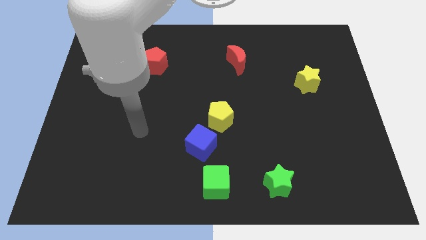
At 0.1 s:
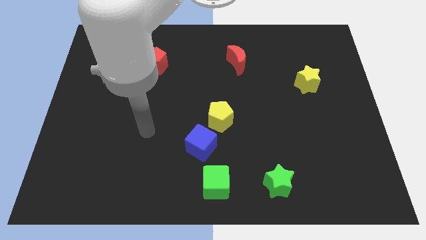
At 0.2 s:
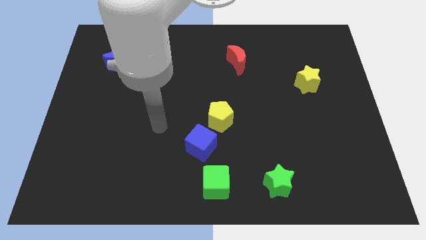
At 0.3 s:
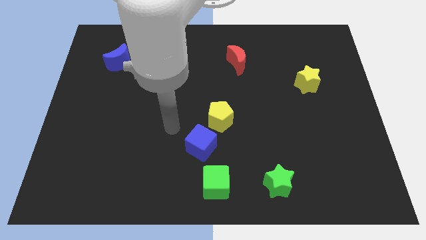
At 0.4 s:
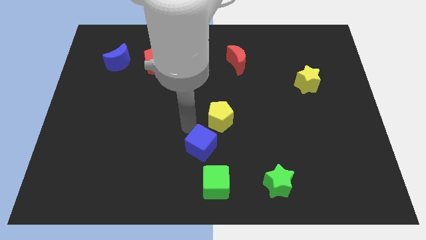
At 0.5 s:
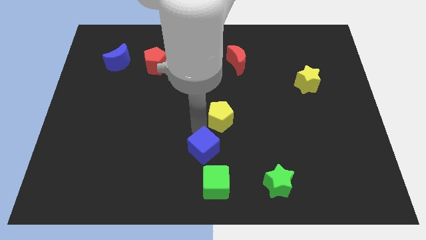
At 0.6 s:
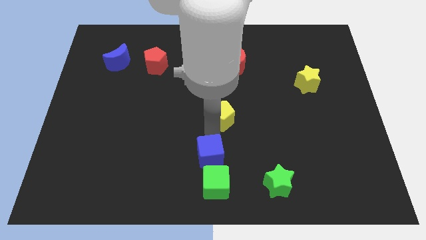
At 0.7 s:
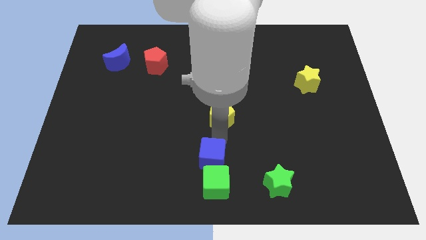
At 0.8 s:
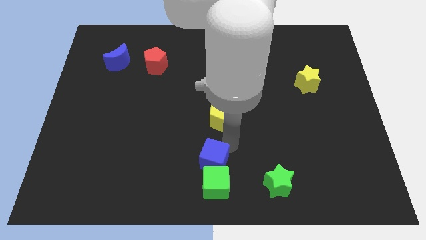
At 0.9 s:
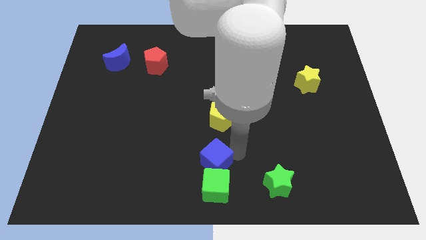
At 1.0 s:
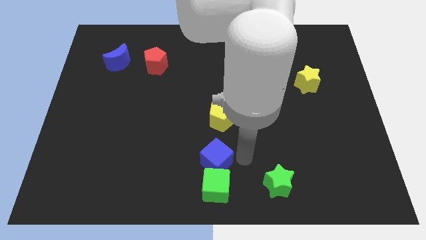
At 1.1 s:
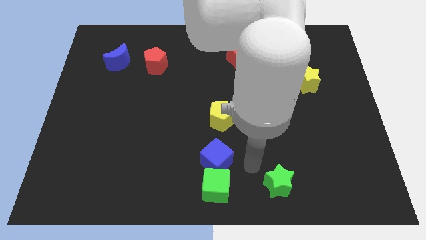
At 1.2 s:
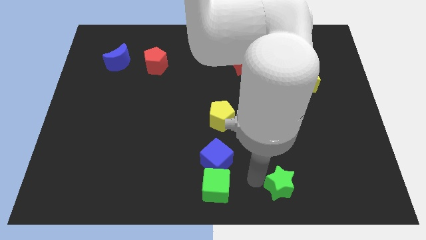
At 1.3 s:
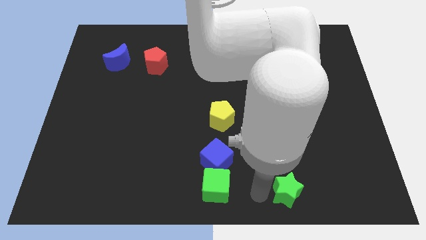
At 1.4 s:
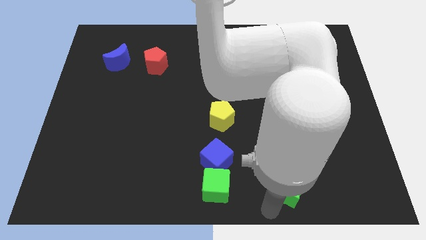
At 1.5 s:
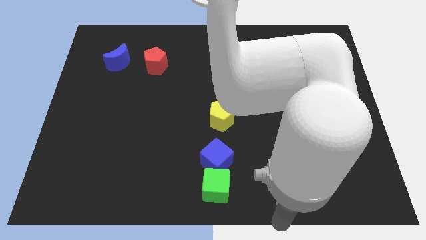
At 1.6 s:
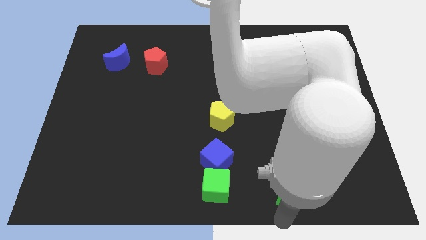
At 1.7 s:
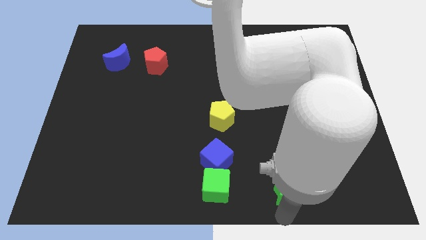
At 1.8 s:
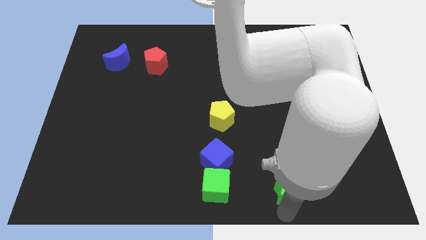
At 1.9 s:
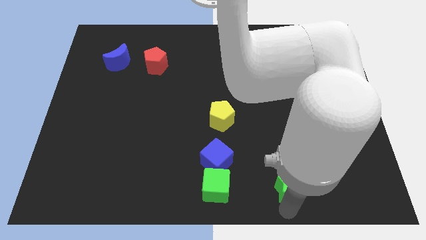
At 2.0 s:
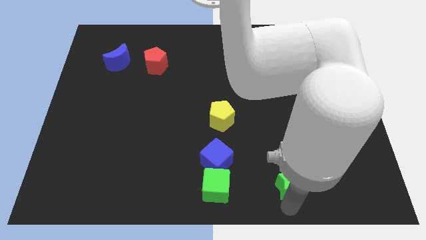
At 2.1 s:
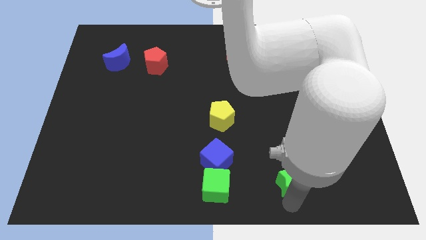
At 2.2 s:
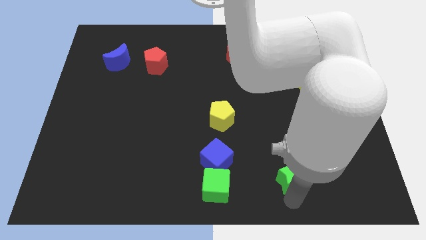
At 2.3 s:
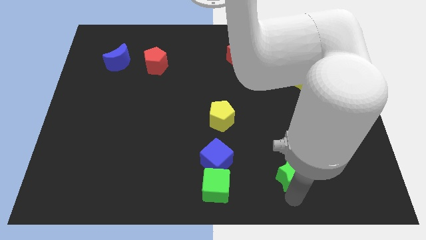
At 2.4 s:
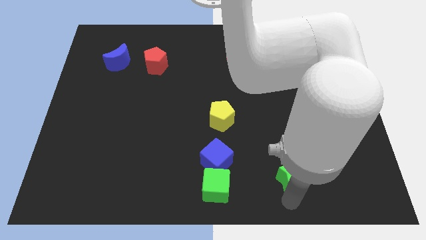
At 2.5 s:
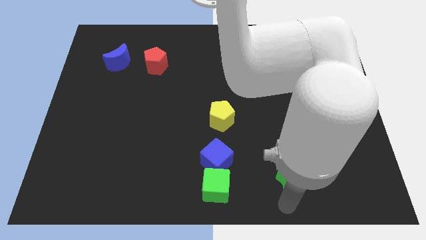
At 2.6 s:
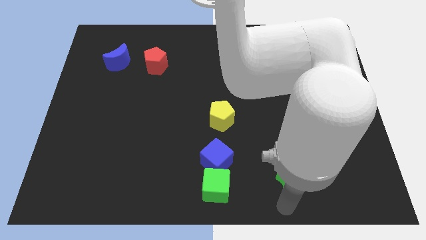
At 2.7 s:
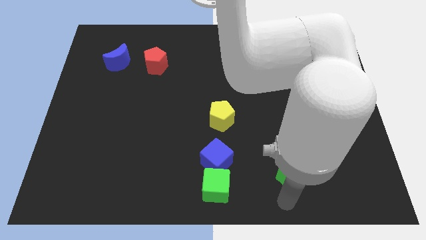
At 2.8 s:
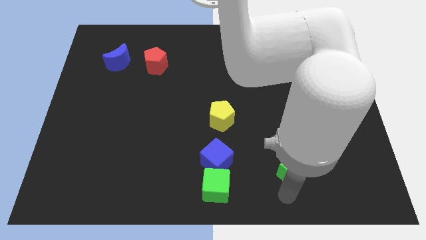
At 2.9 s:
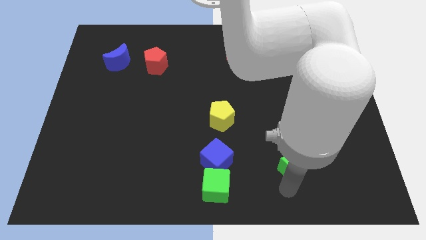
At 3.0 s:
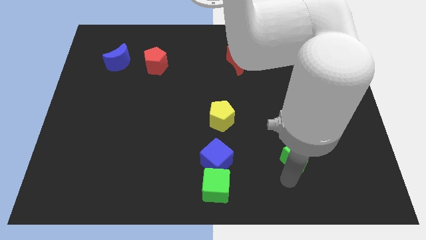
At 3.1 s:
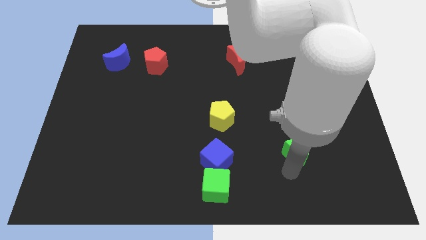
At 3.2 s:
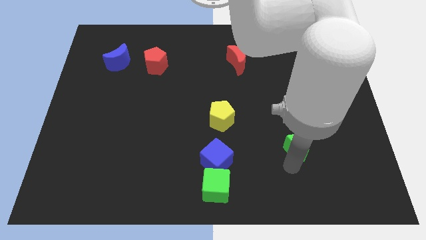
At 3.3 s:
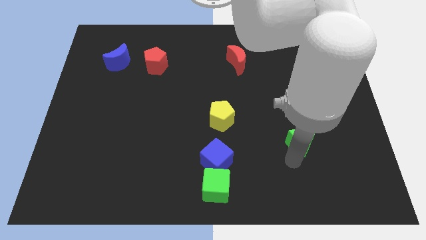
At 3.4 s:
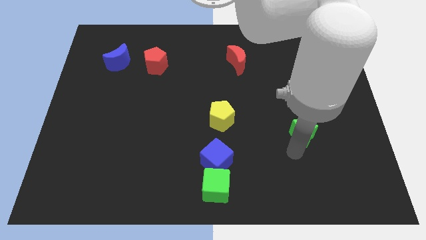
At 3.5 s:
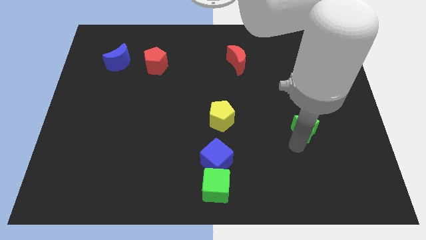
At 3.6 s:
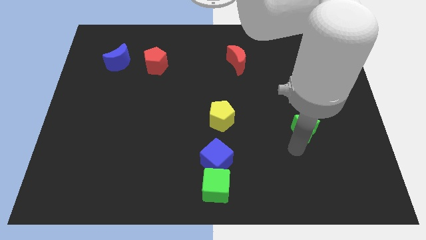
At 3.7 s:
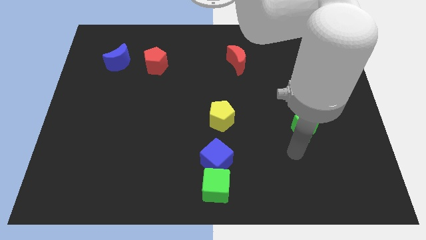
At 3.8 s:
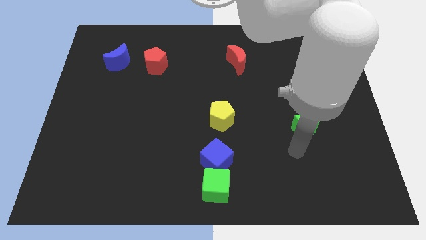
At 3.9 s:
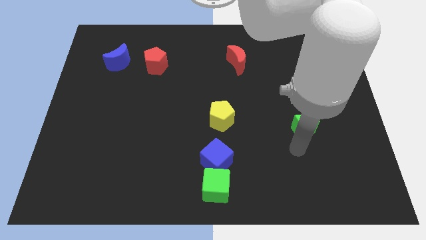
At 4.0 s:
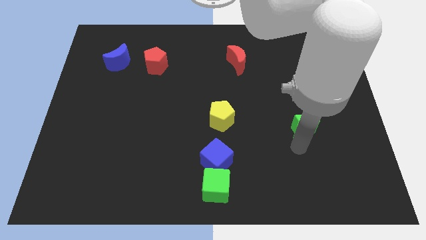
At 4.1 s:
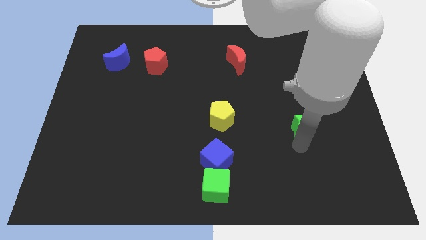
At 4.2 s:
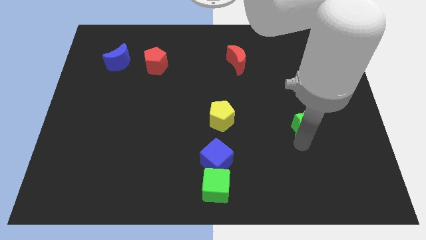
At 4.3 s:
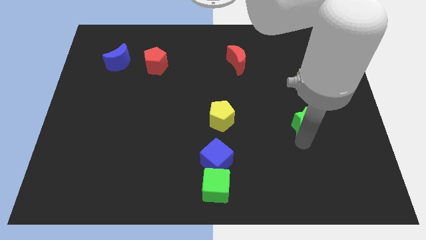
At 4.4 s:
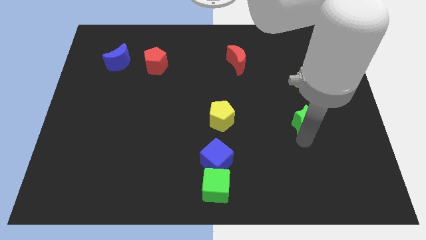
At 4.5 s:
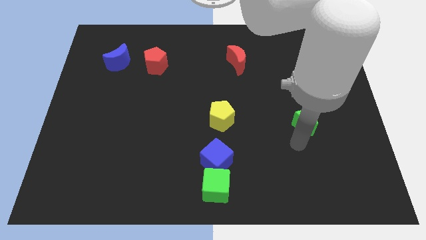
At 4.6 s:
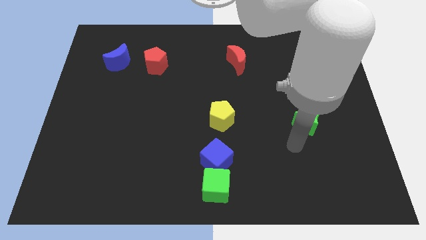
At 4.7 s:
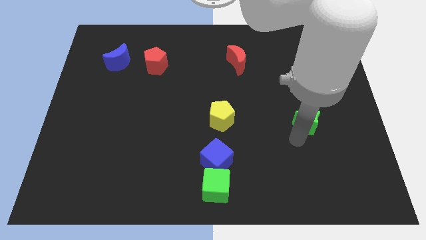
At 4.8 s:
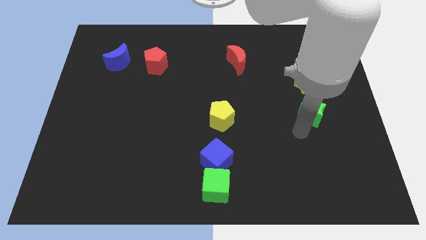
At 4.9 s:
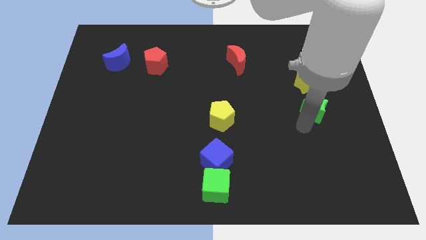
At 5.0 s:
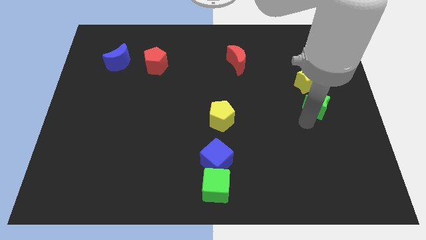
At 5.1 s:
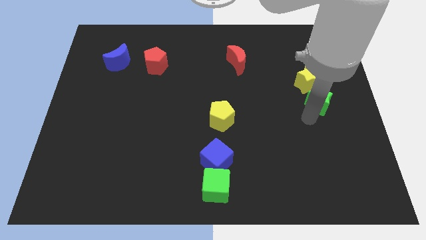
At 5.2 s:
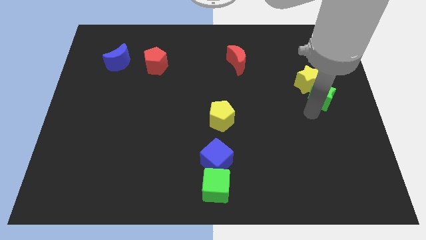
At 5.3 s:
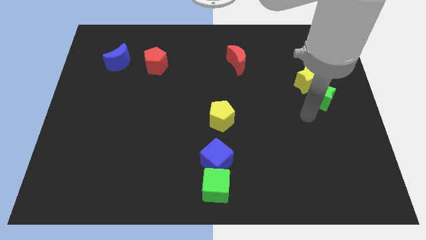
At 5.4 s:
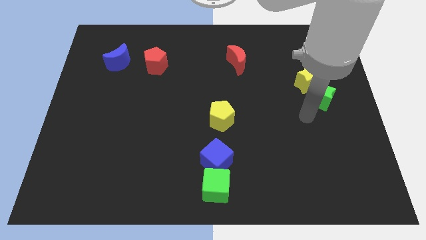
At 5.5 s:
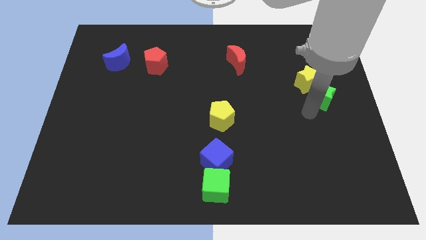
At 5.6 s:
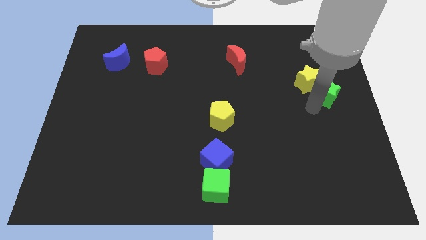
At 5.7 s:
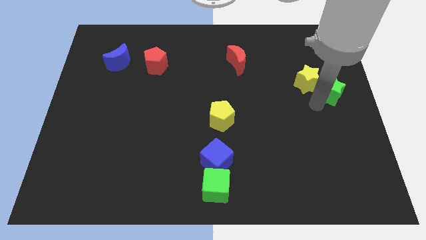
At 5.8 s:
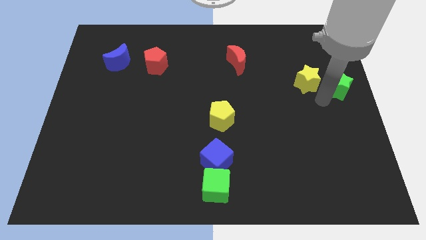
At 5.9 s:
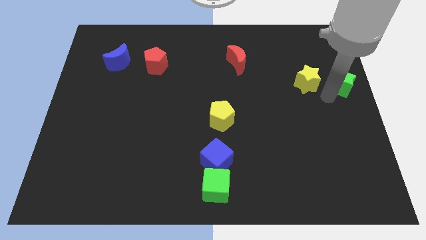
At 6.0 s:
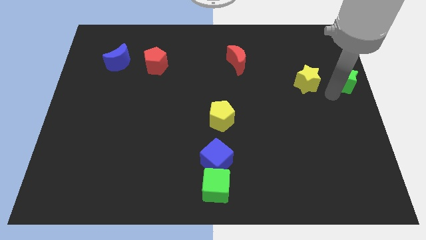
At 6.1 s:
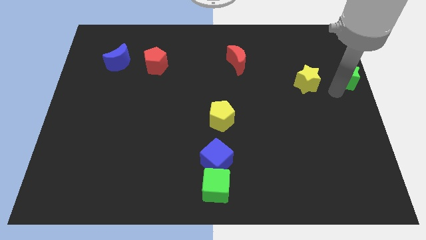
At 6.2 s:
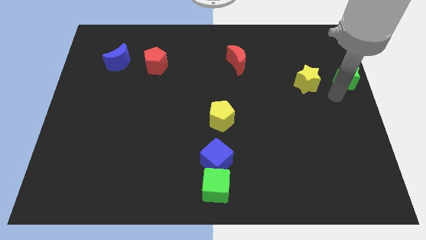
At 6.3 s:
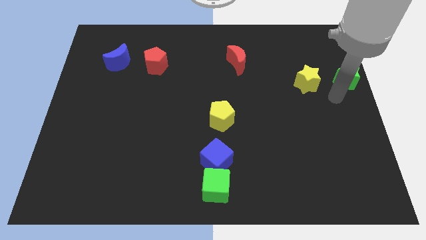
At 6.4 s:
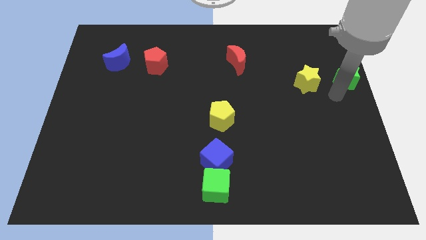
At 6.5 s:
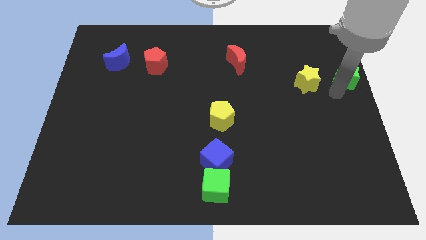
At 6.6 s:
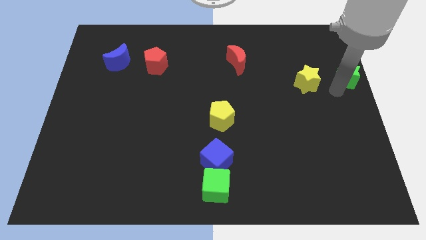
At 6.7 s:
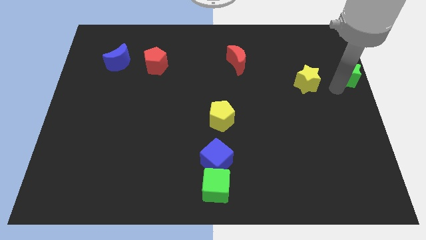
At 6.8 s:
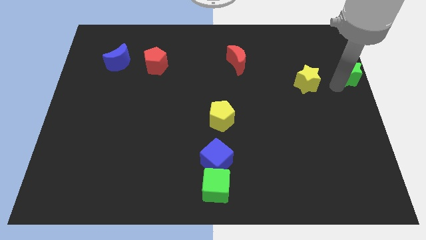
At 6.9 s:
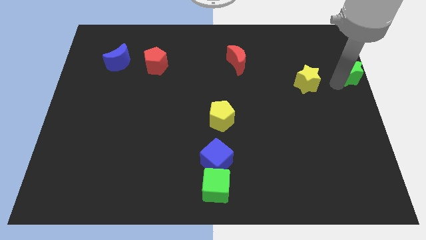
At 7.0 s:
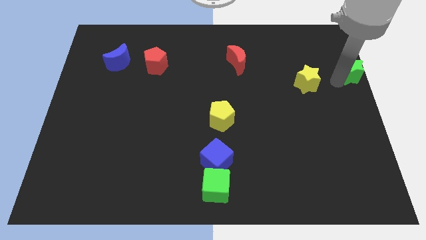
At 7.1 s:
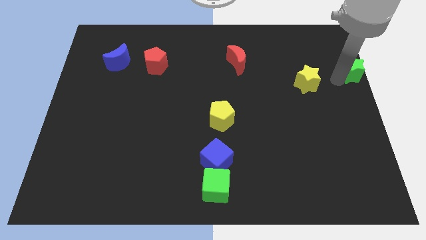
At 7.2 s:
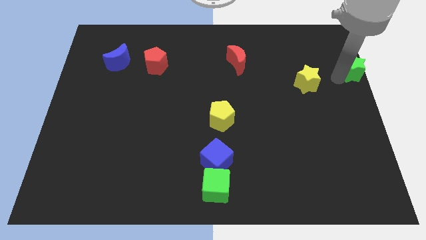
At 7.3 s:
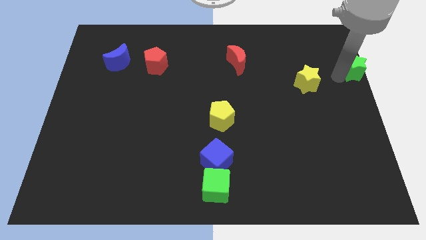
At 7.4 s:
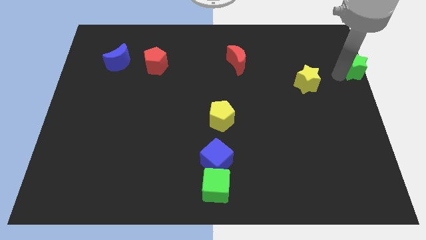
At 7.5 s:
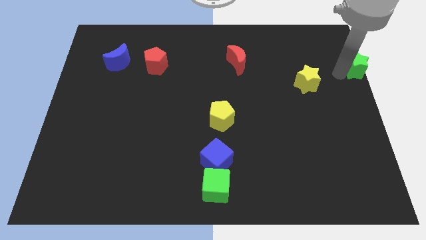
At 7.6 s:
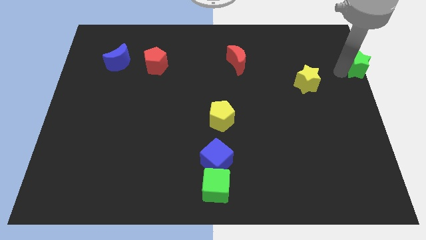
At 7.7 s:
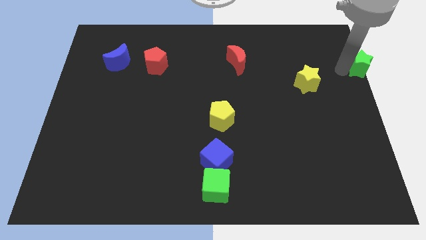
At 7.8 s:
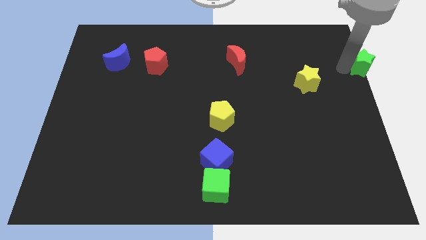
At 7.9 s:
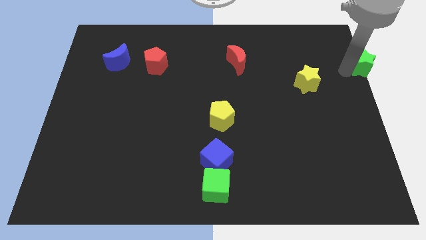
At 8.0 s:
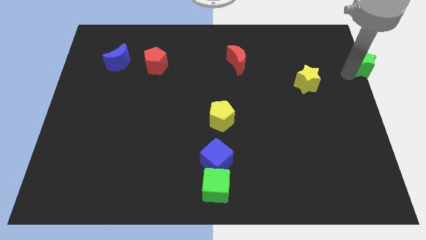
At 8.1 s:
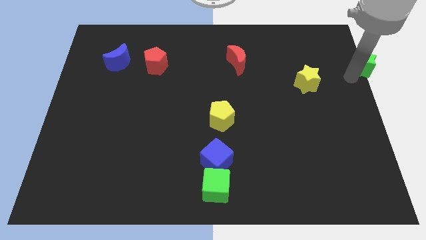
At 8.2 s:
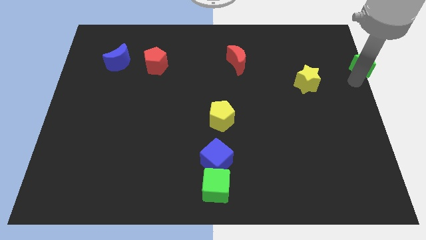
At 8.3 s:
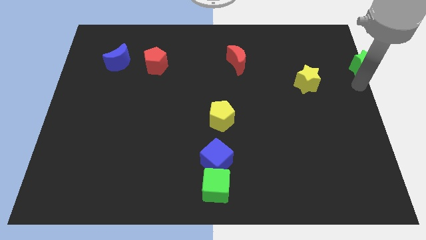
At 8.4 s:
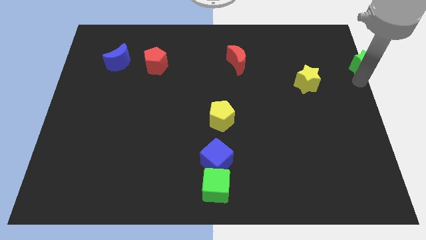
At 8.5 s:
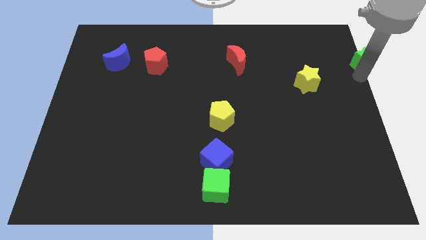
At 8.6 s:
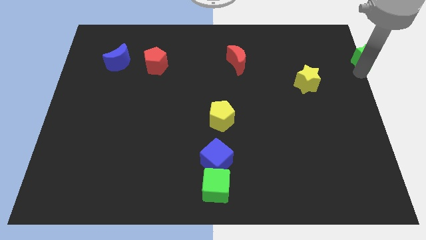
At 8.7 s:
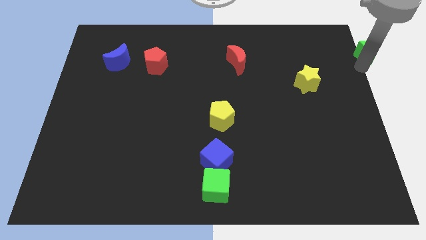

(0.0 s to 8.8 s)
put the green star to the top right
